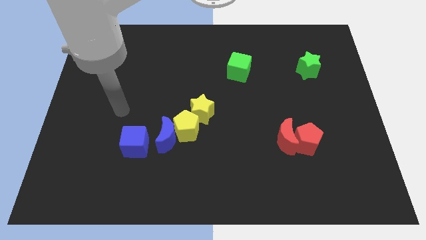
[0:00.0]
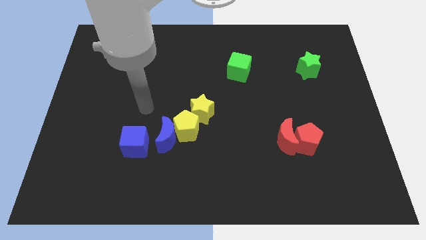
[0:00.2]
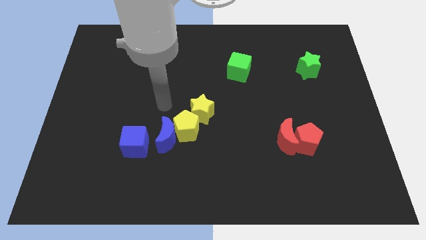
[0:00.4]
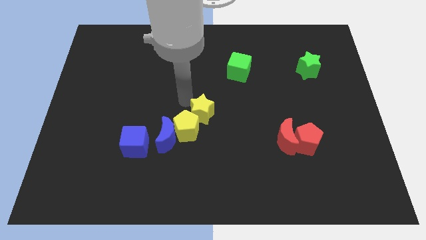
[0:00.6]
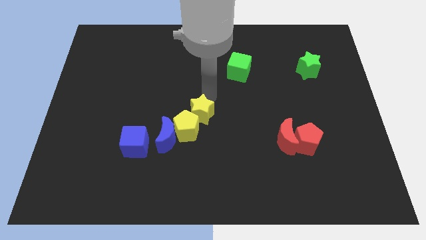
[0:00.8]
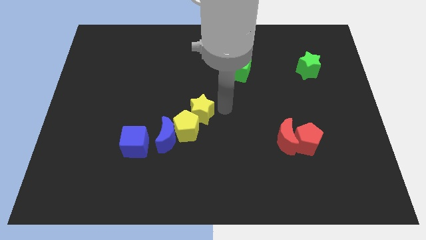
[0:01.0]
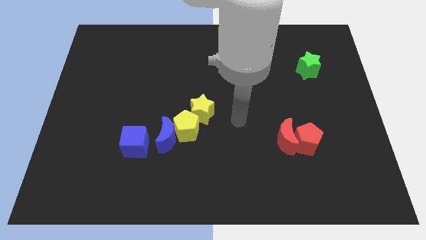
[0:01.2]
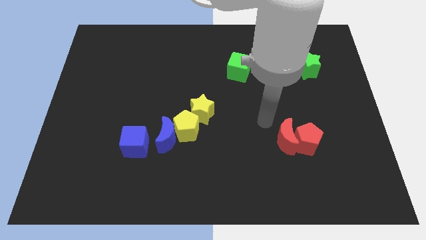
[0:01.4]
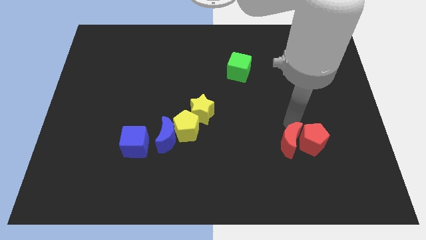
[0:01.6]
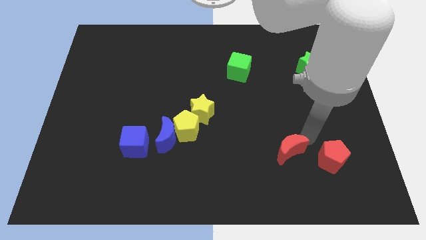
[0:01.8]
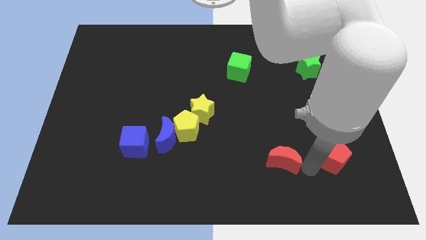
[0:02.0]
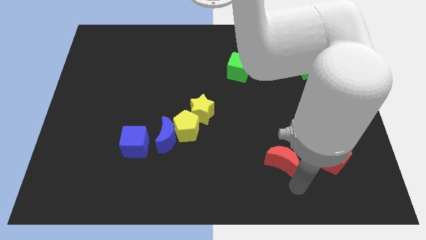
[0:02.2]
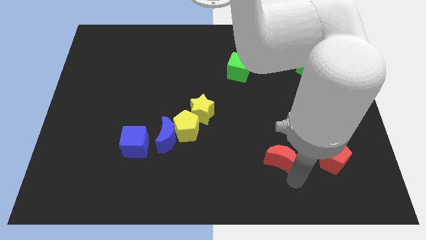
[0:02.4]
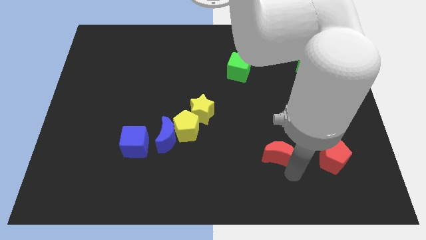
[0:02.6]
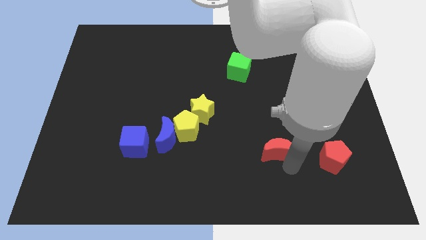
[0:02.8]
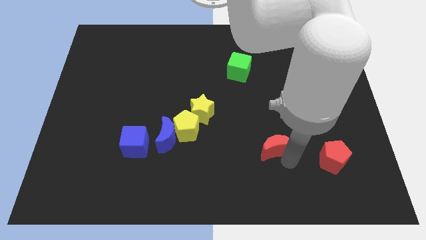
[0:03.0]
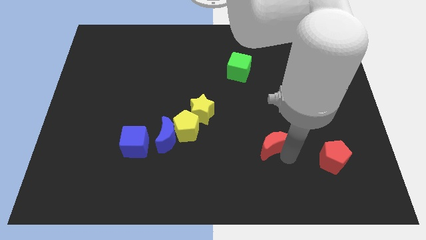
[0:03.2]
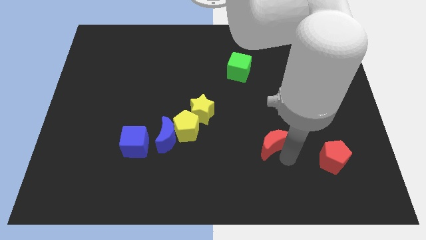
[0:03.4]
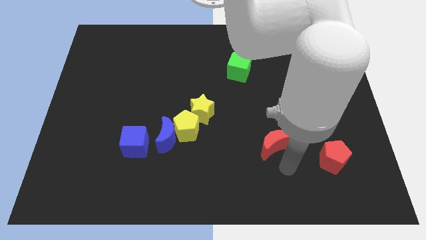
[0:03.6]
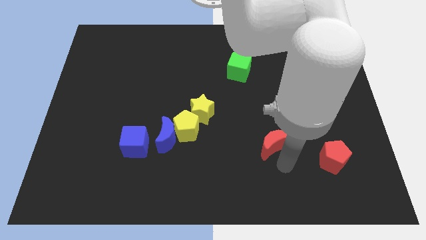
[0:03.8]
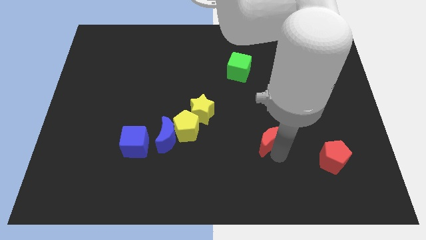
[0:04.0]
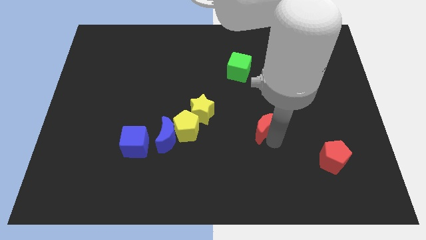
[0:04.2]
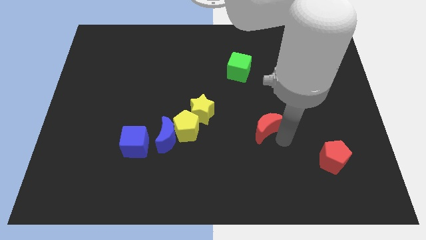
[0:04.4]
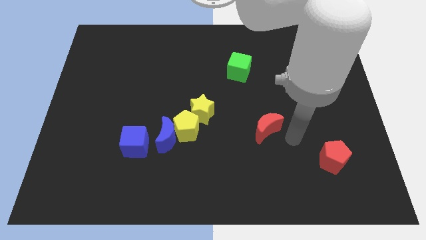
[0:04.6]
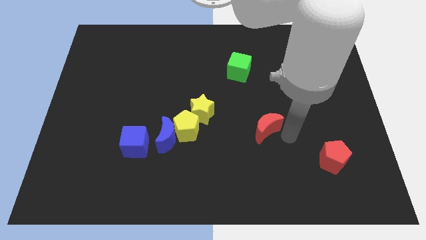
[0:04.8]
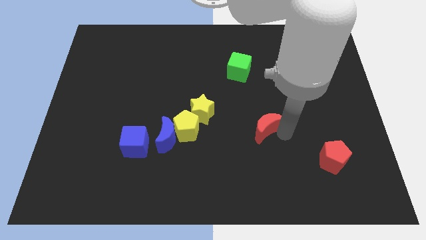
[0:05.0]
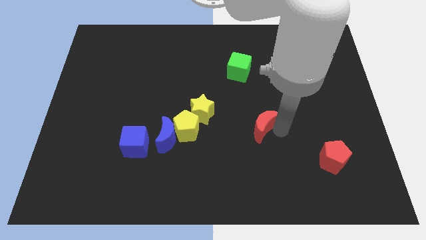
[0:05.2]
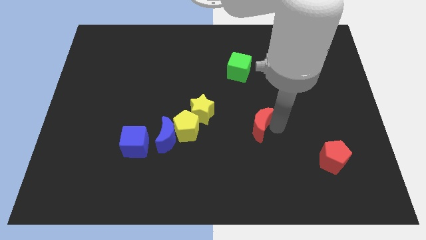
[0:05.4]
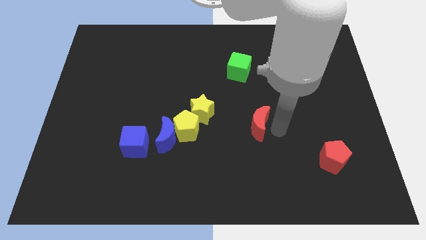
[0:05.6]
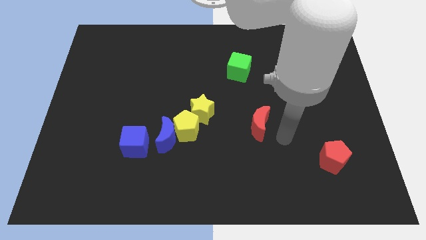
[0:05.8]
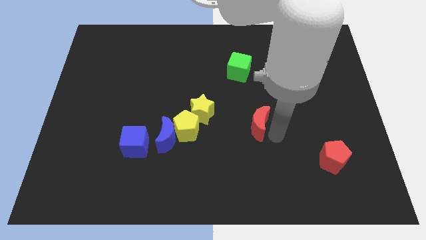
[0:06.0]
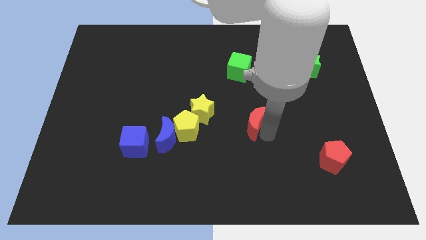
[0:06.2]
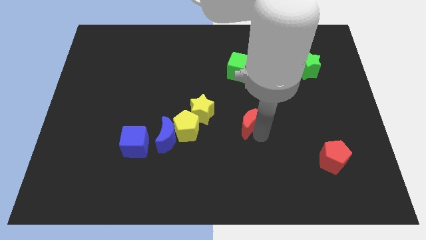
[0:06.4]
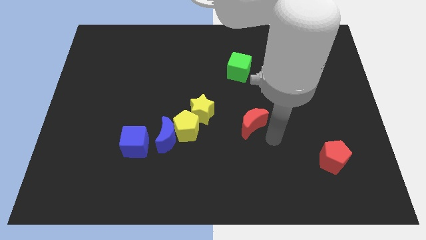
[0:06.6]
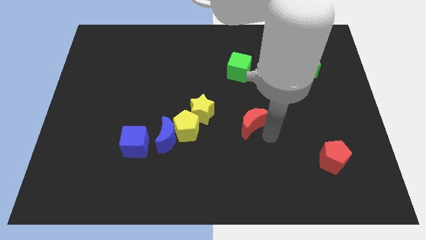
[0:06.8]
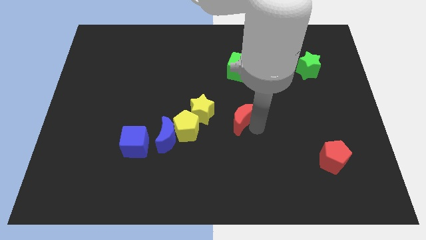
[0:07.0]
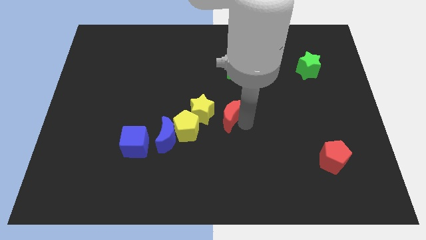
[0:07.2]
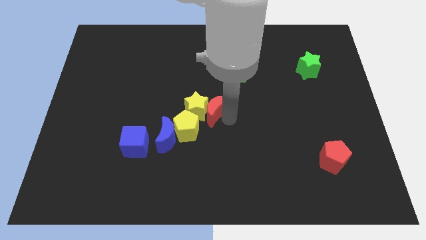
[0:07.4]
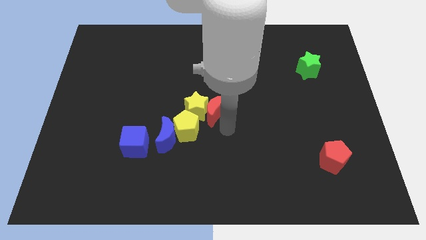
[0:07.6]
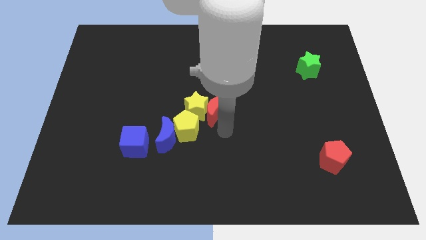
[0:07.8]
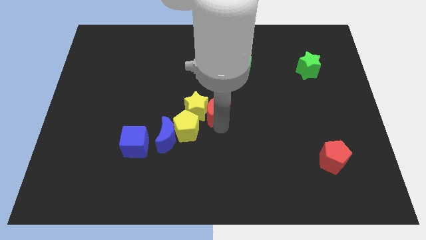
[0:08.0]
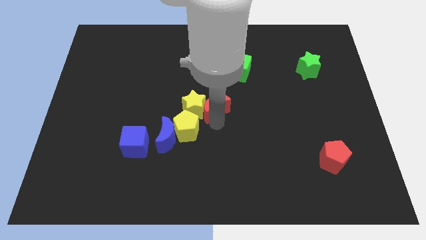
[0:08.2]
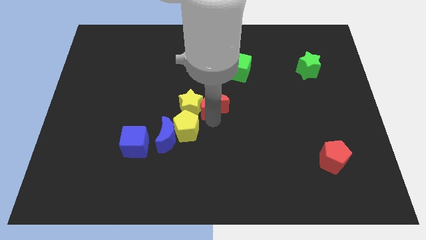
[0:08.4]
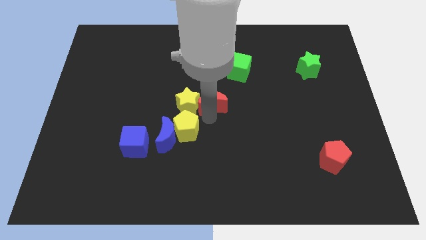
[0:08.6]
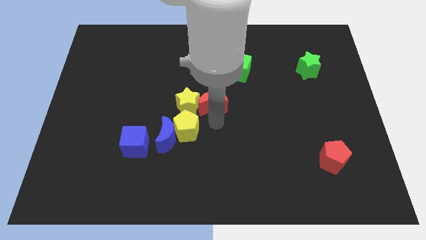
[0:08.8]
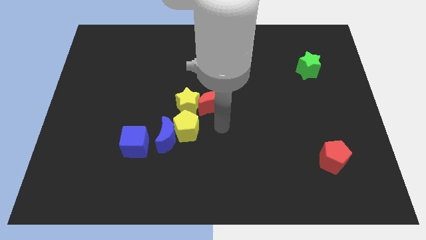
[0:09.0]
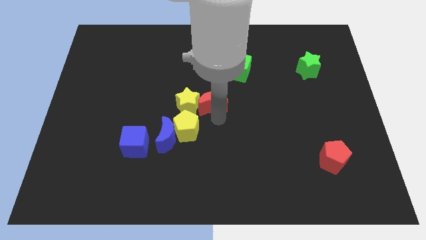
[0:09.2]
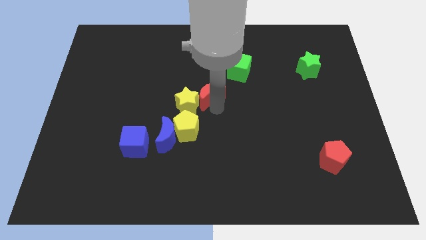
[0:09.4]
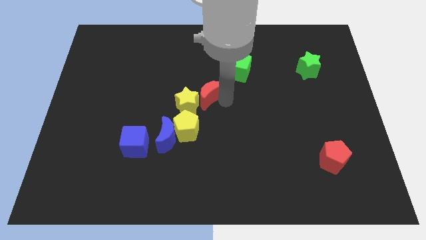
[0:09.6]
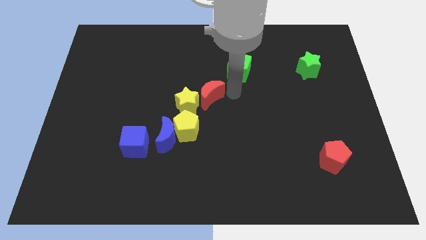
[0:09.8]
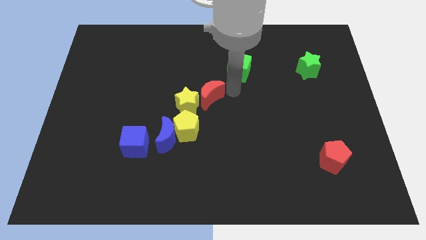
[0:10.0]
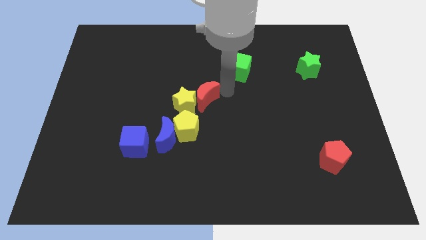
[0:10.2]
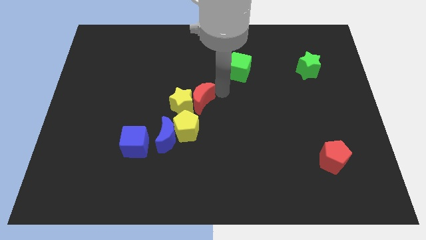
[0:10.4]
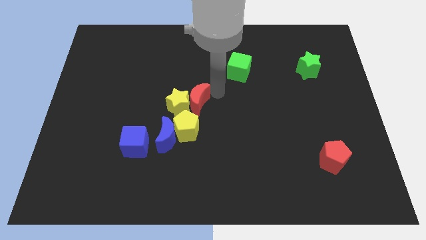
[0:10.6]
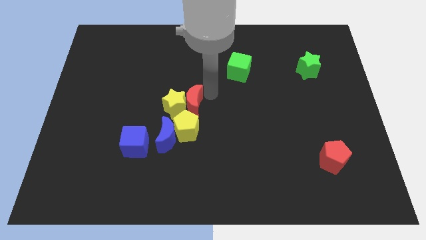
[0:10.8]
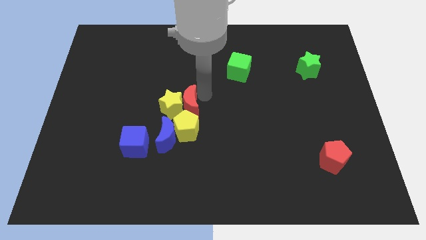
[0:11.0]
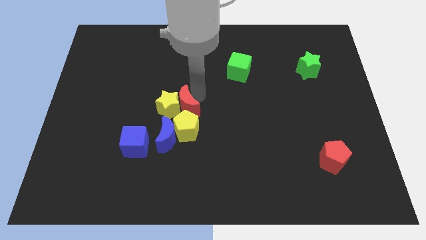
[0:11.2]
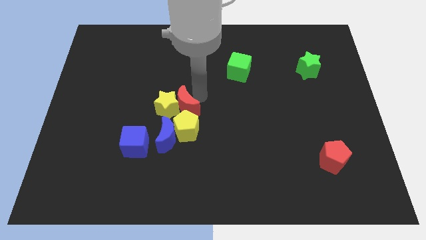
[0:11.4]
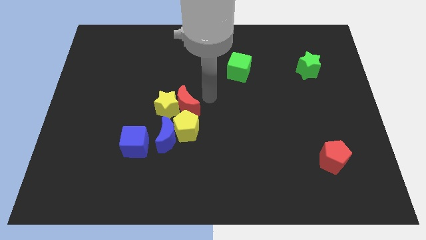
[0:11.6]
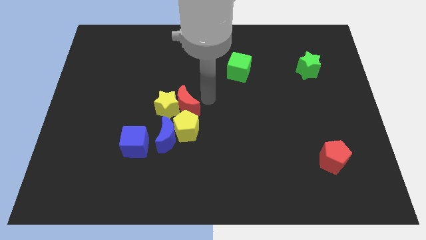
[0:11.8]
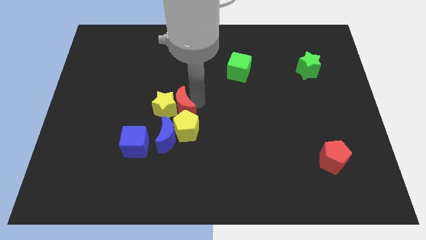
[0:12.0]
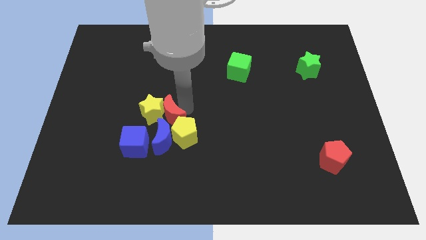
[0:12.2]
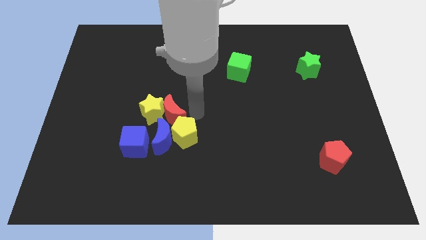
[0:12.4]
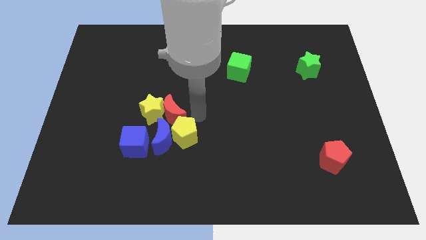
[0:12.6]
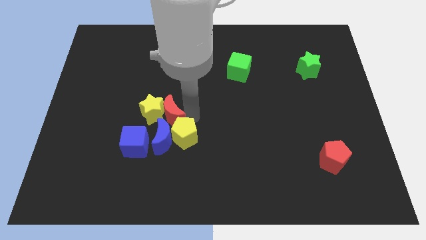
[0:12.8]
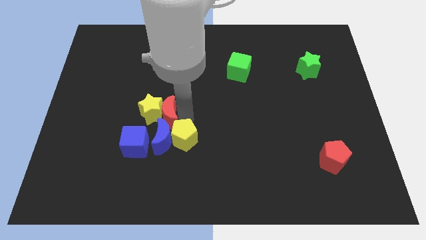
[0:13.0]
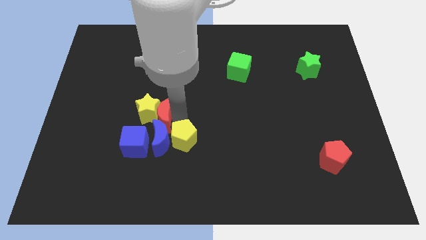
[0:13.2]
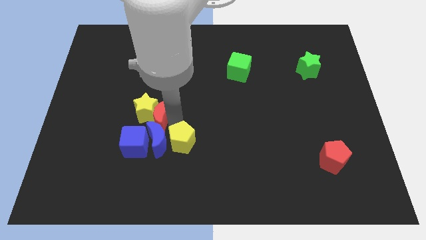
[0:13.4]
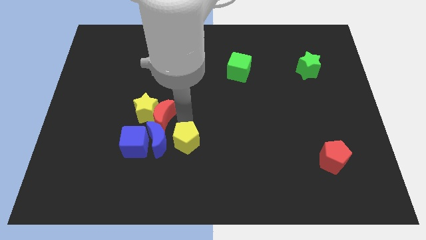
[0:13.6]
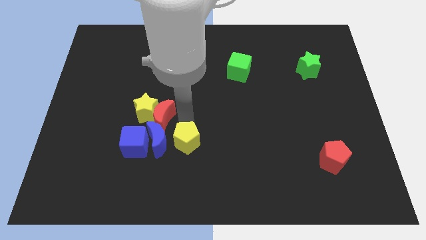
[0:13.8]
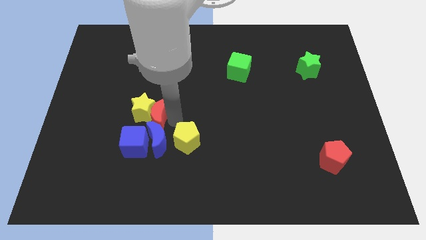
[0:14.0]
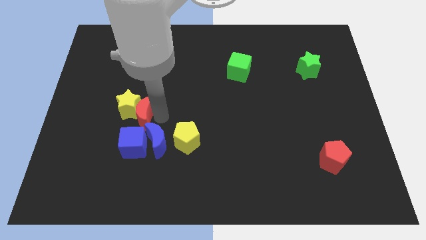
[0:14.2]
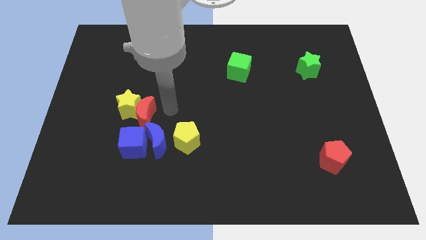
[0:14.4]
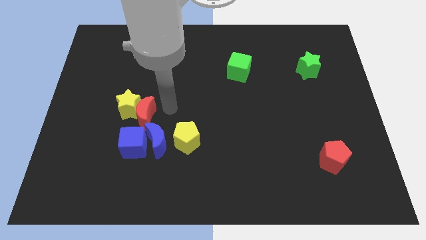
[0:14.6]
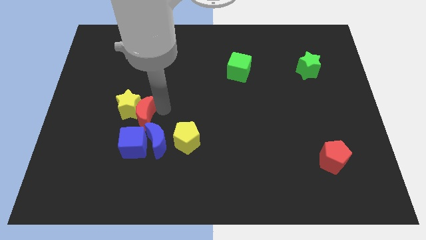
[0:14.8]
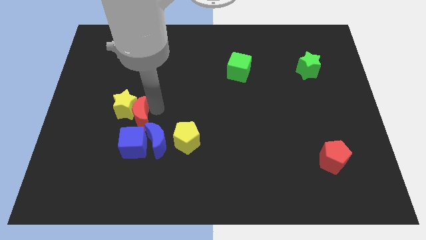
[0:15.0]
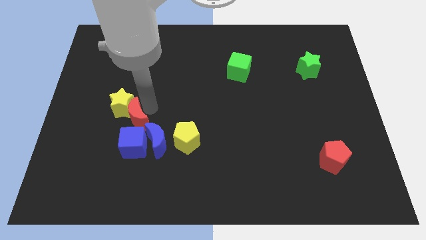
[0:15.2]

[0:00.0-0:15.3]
put the red moon to the top left side of the blue cube
